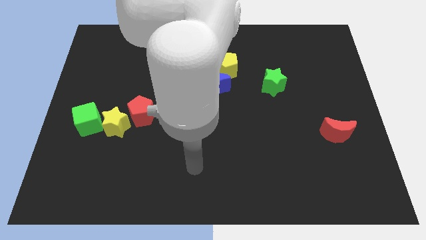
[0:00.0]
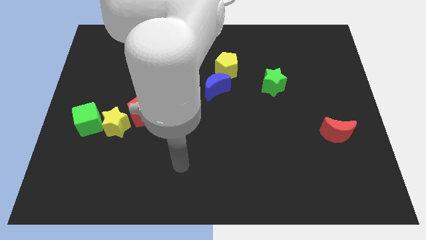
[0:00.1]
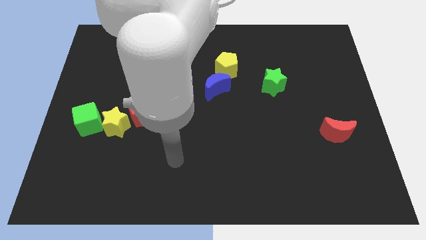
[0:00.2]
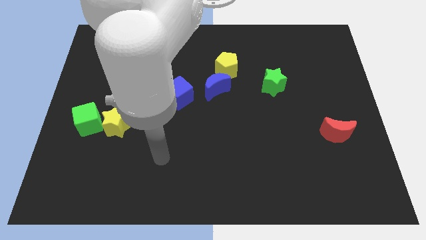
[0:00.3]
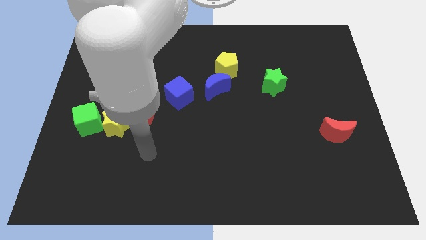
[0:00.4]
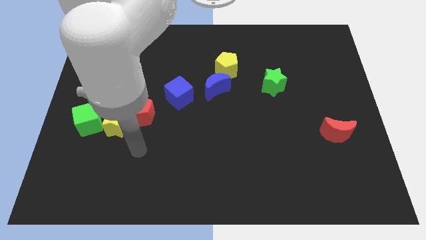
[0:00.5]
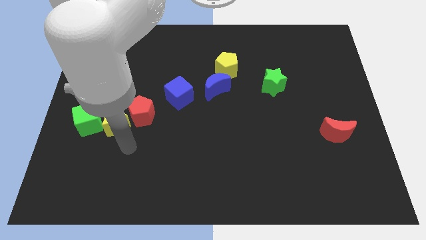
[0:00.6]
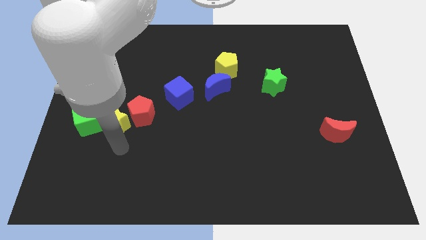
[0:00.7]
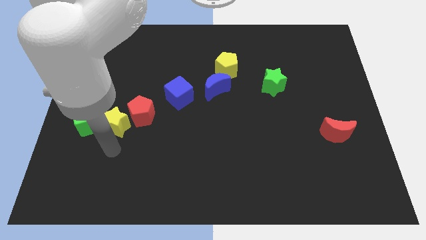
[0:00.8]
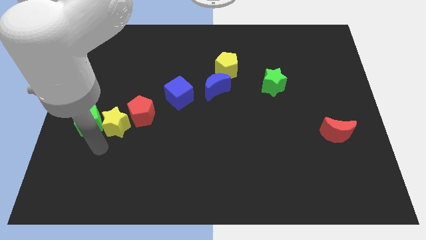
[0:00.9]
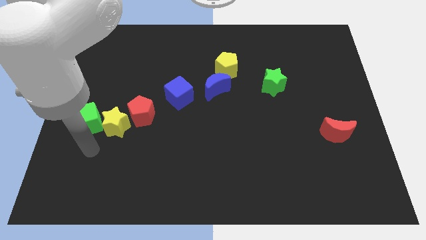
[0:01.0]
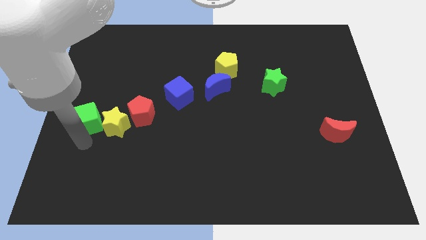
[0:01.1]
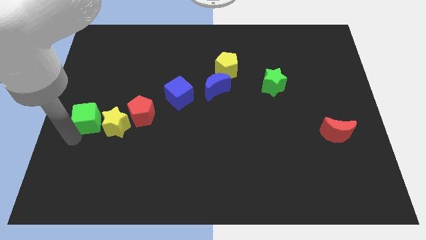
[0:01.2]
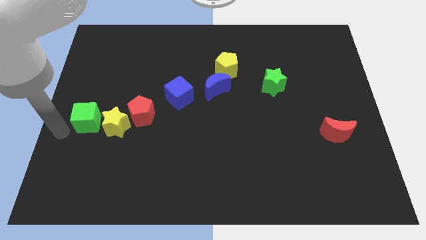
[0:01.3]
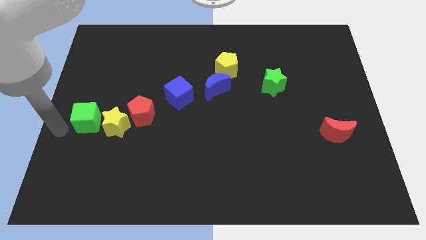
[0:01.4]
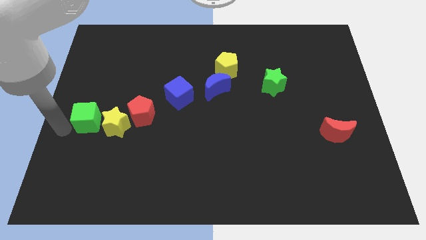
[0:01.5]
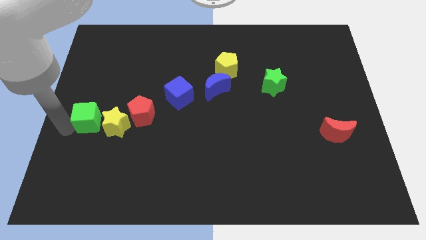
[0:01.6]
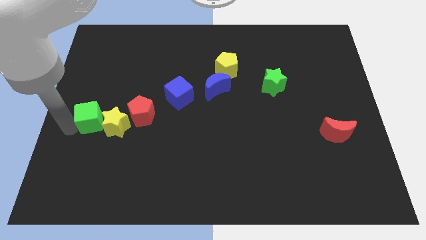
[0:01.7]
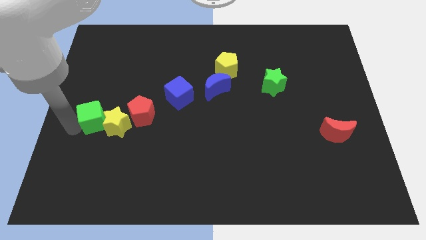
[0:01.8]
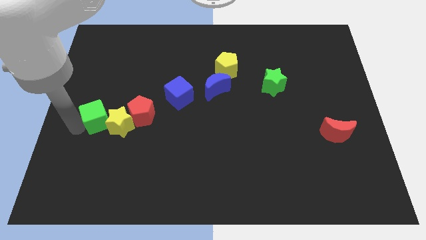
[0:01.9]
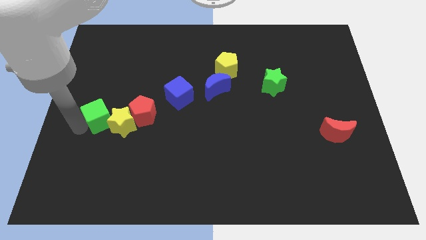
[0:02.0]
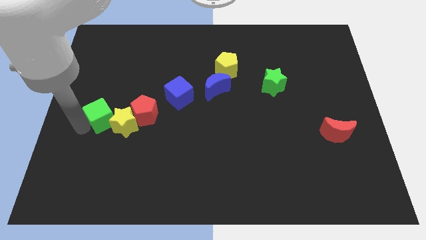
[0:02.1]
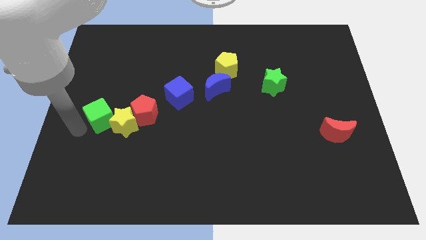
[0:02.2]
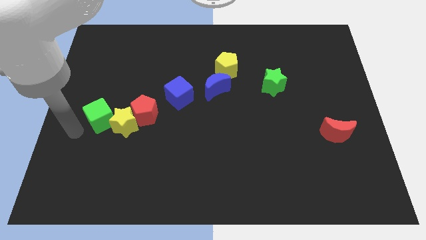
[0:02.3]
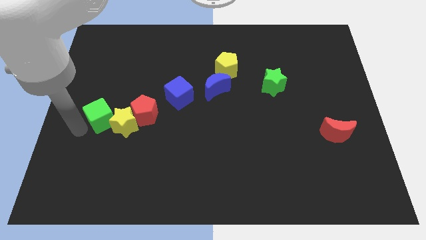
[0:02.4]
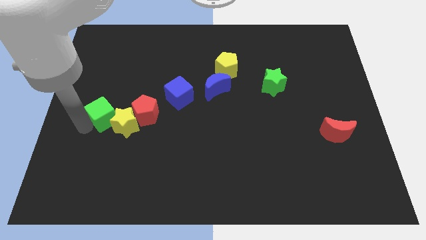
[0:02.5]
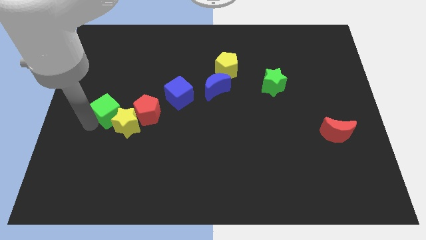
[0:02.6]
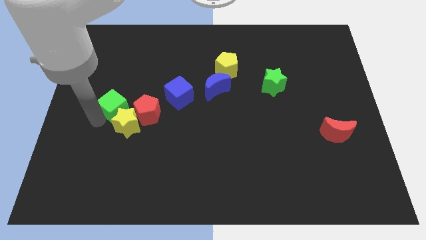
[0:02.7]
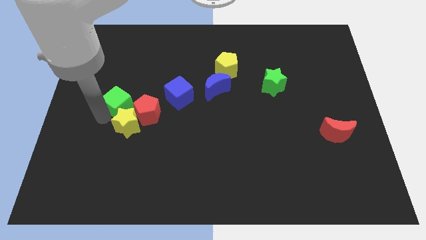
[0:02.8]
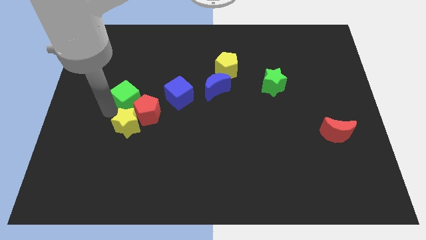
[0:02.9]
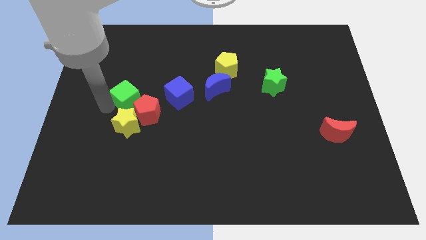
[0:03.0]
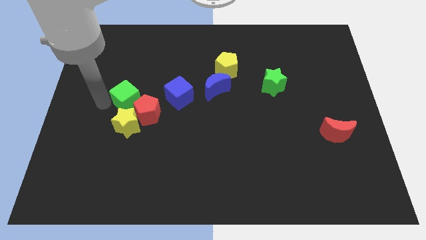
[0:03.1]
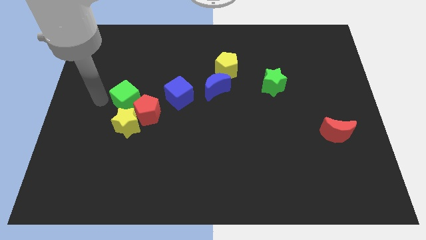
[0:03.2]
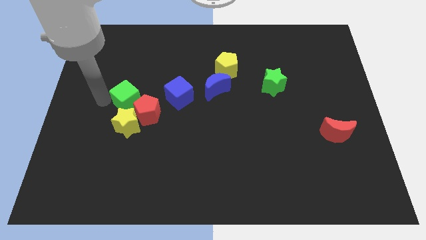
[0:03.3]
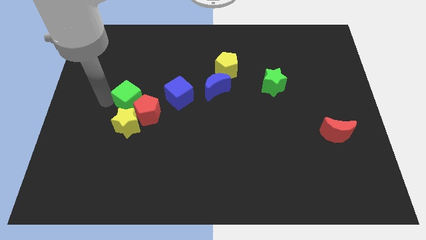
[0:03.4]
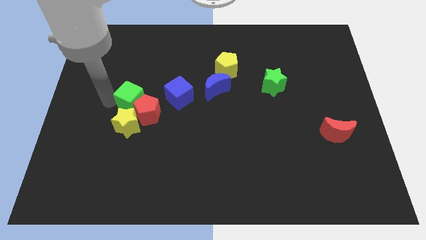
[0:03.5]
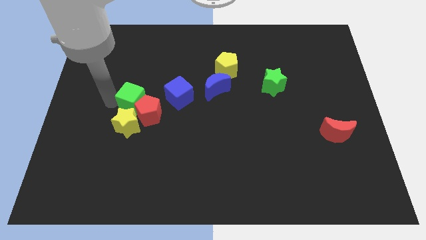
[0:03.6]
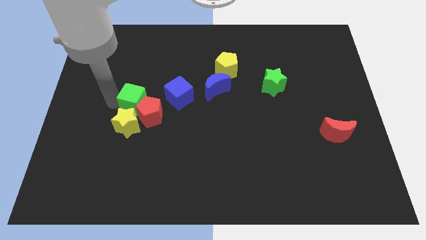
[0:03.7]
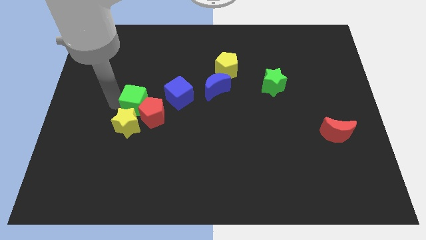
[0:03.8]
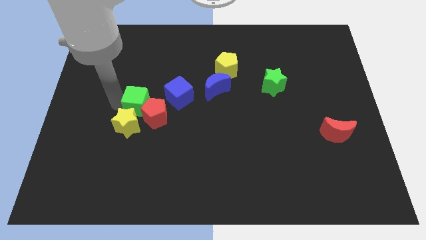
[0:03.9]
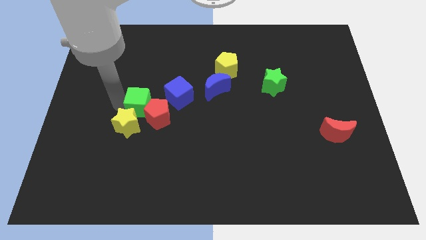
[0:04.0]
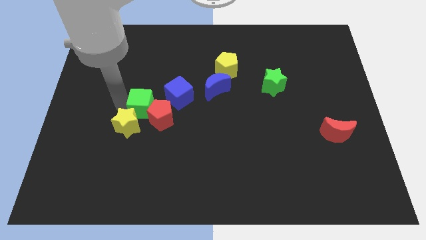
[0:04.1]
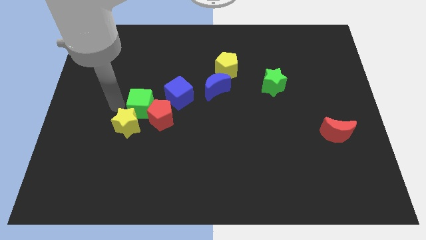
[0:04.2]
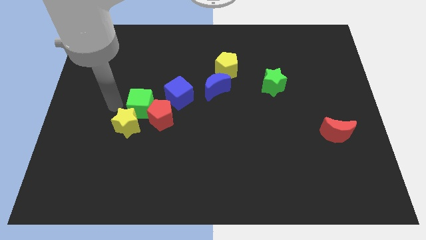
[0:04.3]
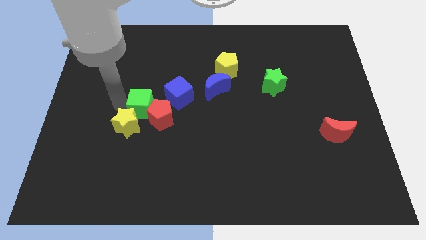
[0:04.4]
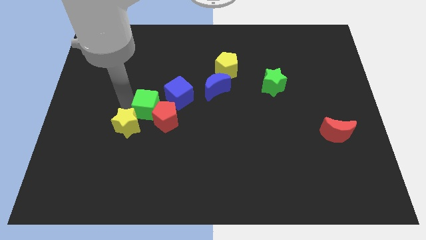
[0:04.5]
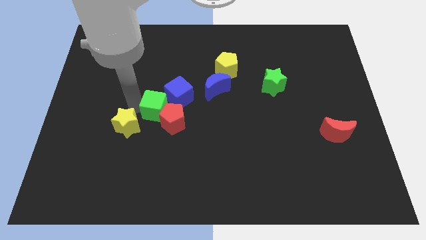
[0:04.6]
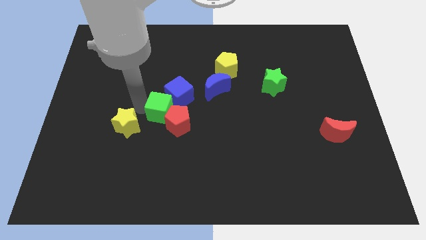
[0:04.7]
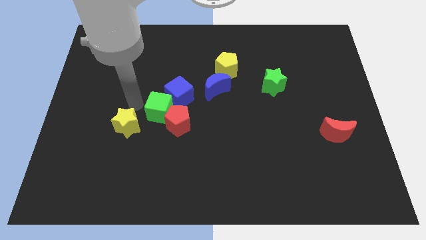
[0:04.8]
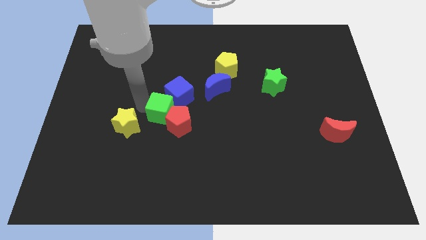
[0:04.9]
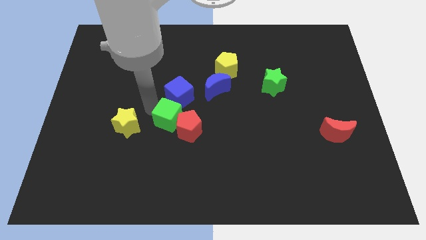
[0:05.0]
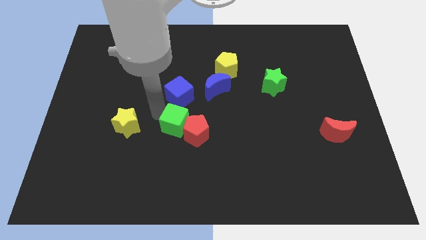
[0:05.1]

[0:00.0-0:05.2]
move the green cube to the right

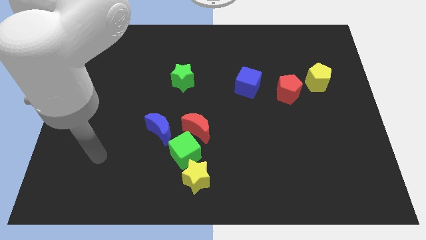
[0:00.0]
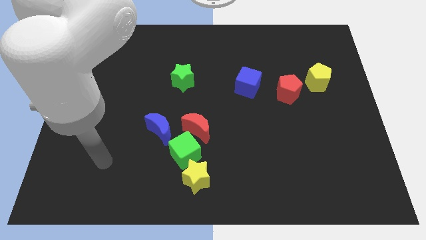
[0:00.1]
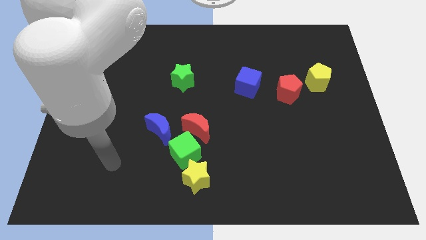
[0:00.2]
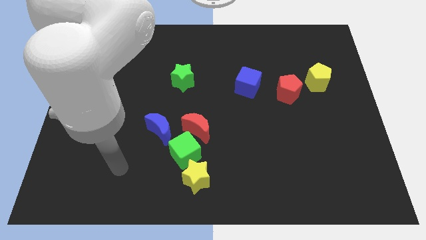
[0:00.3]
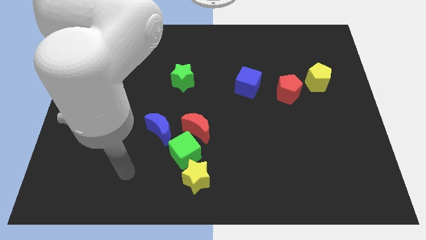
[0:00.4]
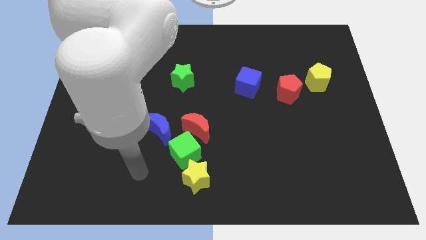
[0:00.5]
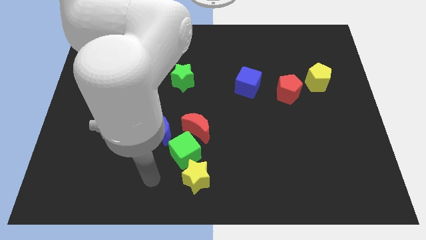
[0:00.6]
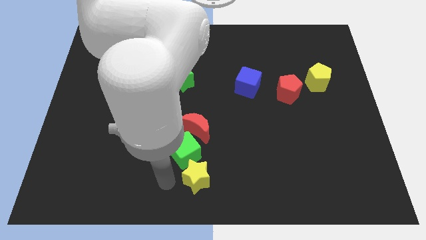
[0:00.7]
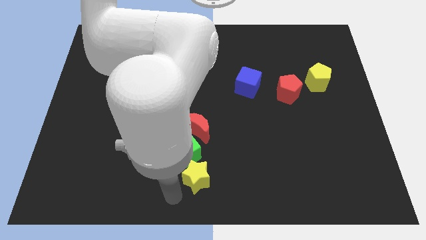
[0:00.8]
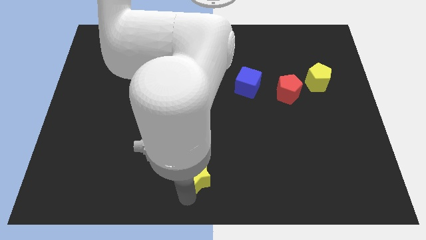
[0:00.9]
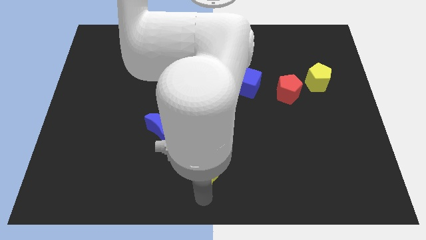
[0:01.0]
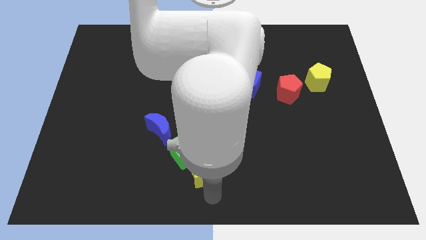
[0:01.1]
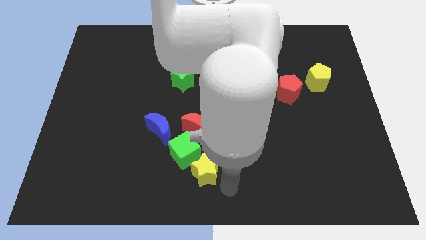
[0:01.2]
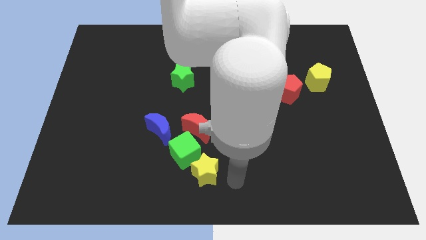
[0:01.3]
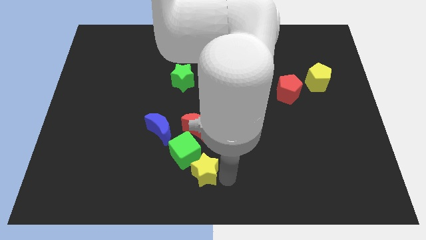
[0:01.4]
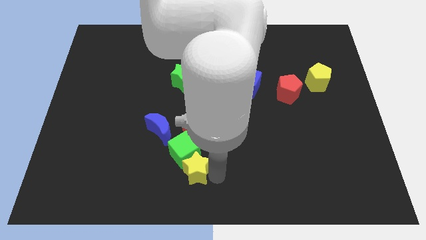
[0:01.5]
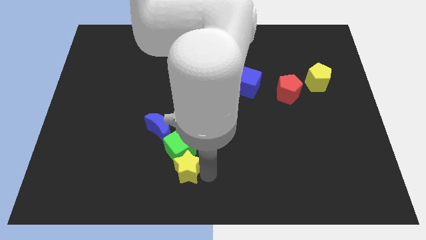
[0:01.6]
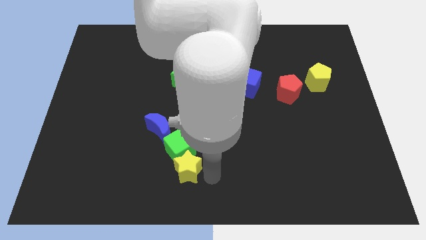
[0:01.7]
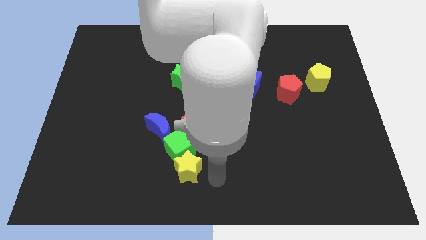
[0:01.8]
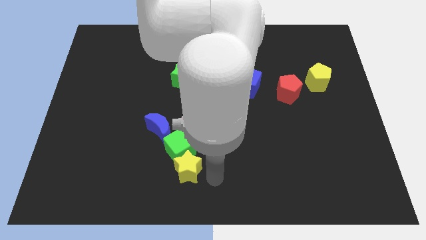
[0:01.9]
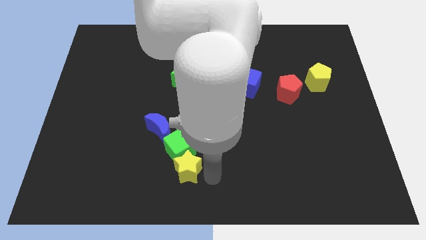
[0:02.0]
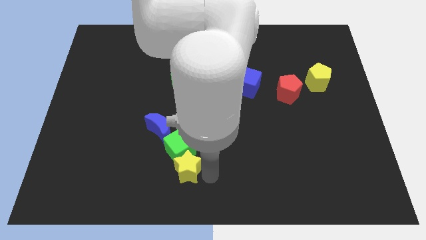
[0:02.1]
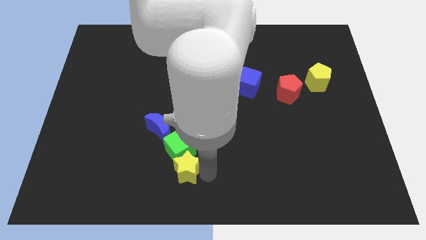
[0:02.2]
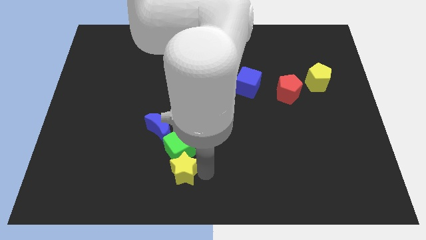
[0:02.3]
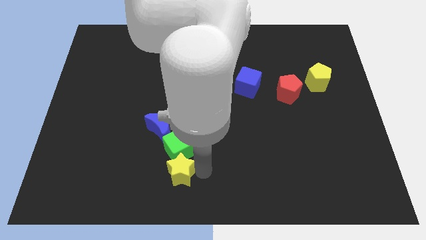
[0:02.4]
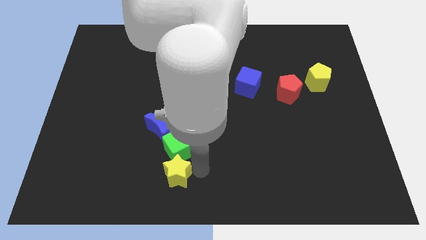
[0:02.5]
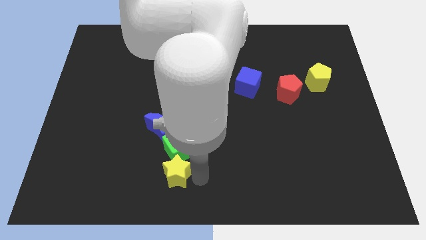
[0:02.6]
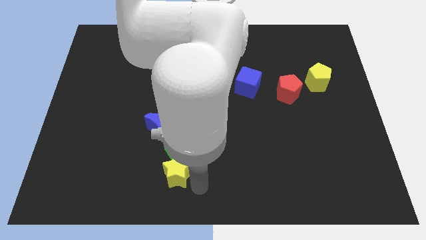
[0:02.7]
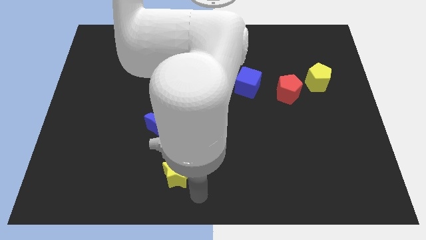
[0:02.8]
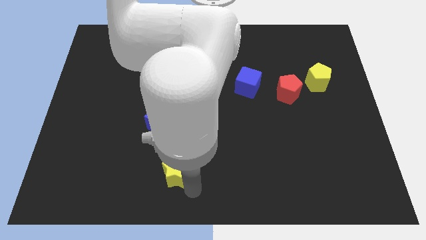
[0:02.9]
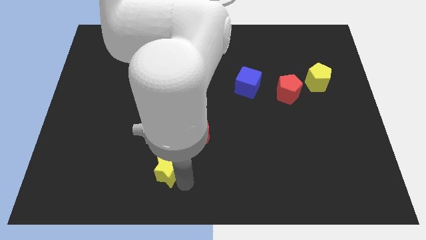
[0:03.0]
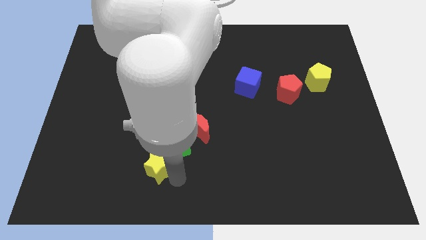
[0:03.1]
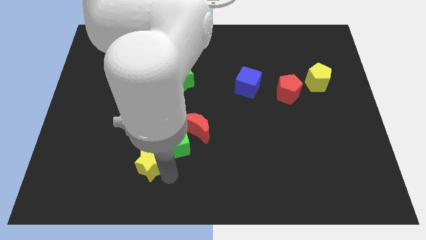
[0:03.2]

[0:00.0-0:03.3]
push the yellow star up and then to the left a little bit
